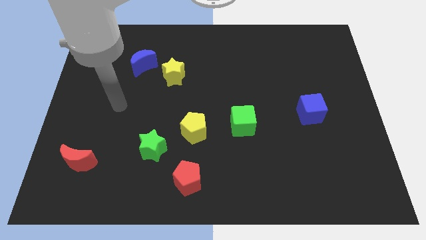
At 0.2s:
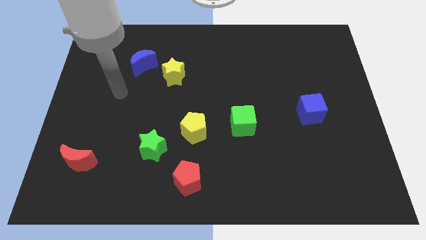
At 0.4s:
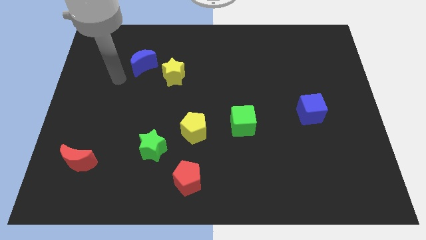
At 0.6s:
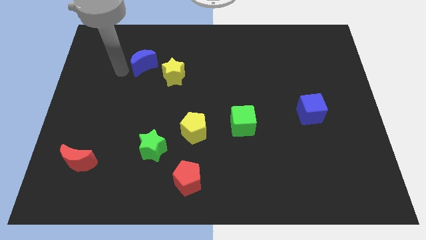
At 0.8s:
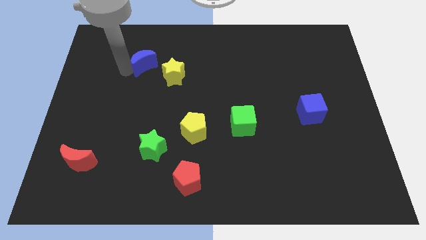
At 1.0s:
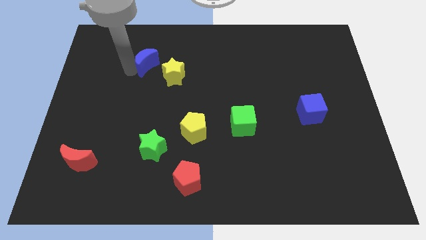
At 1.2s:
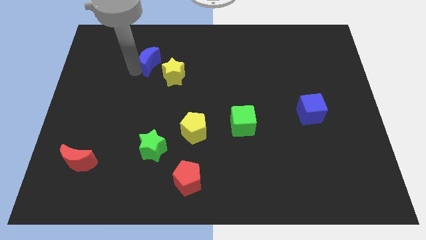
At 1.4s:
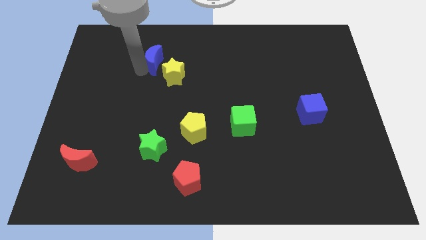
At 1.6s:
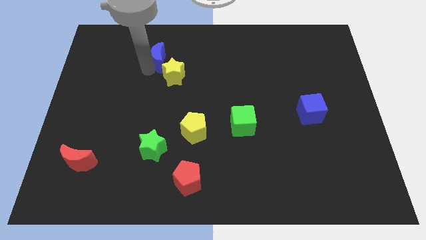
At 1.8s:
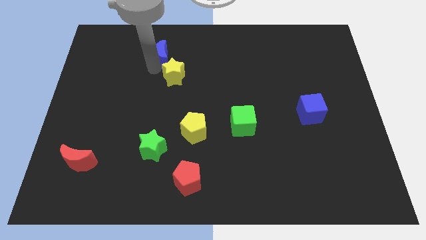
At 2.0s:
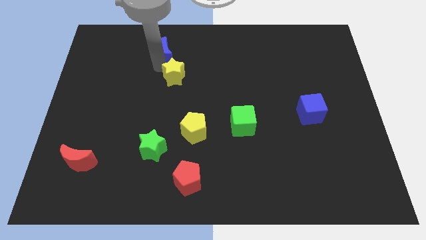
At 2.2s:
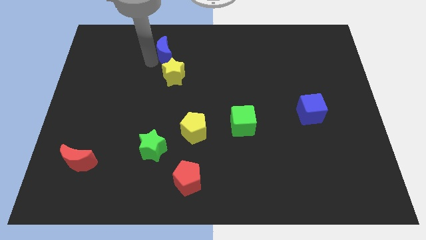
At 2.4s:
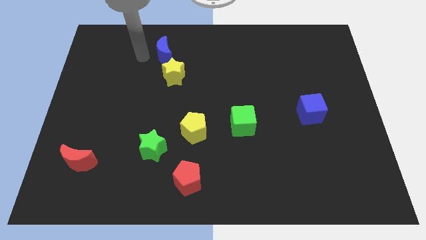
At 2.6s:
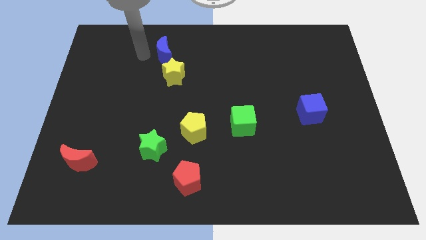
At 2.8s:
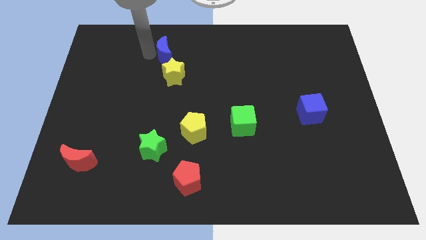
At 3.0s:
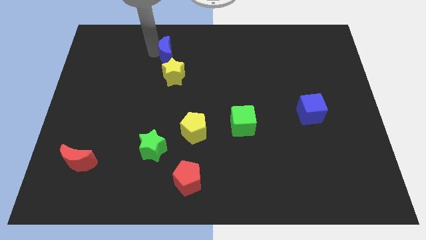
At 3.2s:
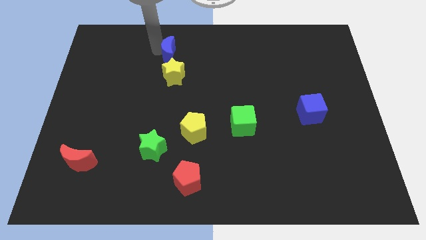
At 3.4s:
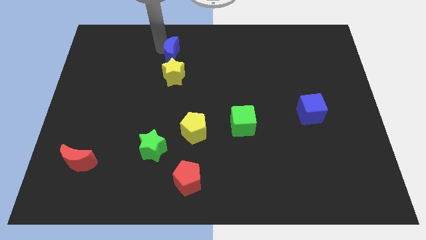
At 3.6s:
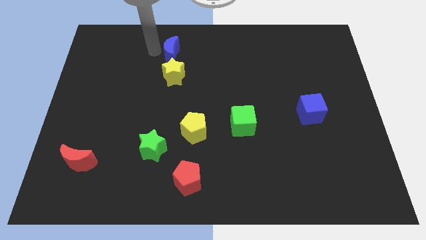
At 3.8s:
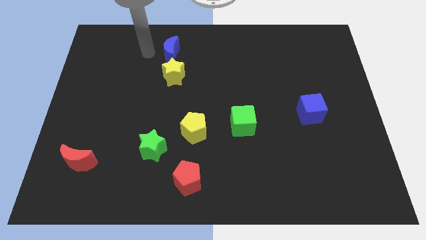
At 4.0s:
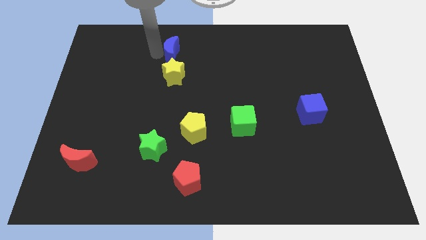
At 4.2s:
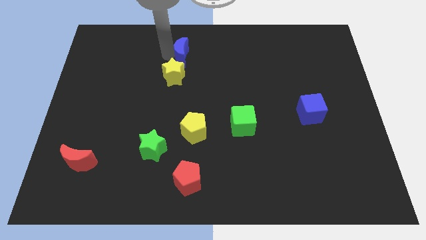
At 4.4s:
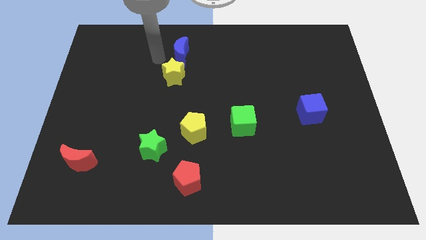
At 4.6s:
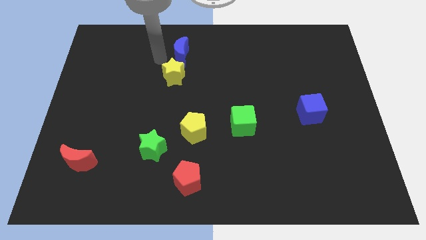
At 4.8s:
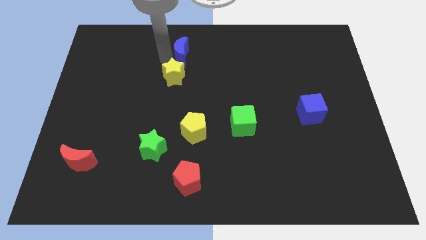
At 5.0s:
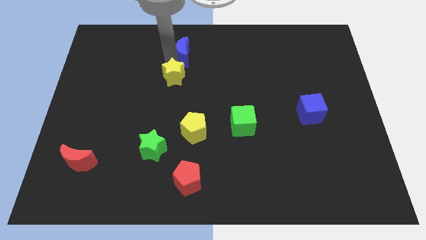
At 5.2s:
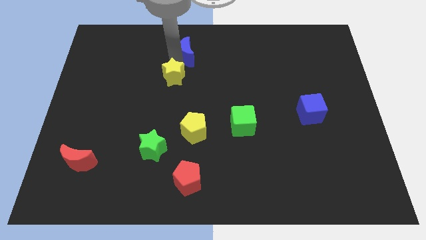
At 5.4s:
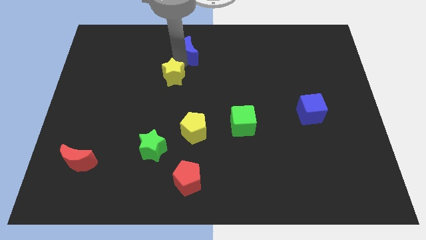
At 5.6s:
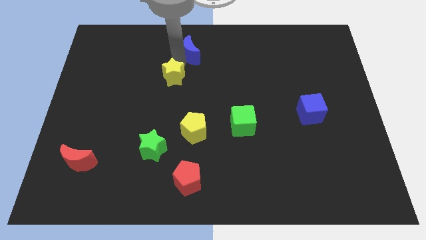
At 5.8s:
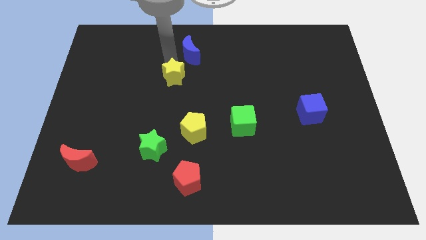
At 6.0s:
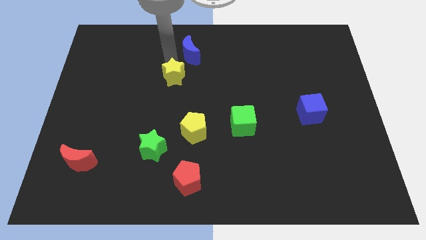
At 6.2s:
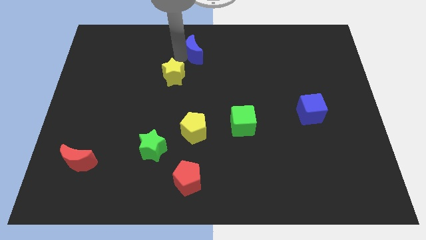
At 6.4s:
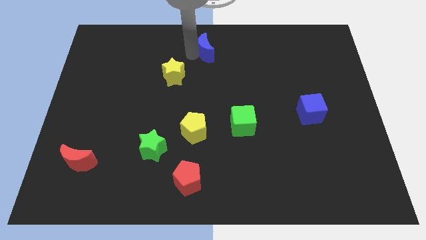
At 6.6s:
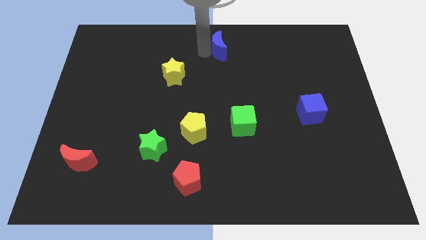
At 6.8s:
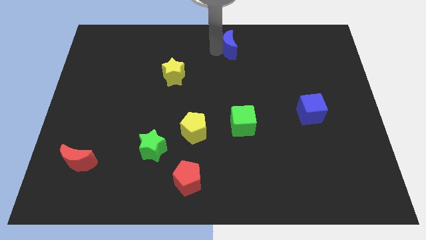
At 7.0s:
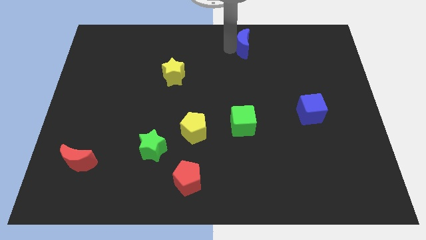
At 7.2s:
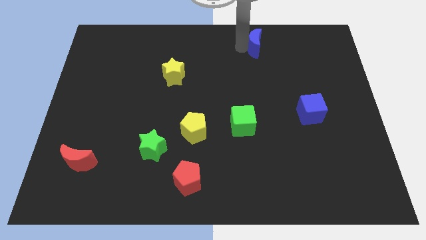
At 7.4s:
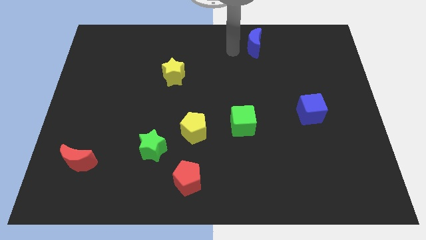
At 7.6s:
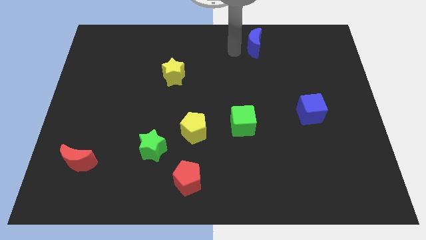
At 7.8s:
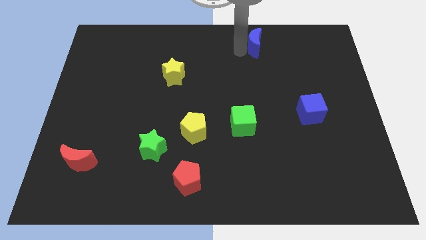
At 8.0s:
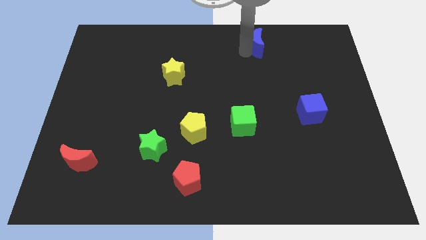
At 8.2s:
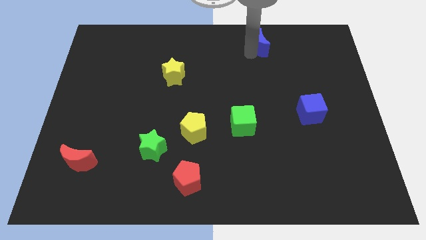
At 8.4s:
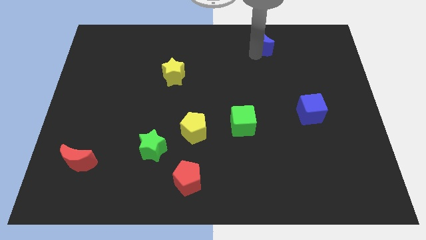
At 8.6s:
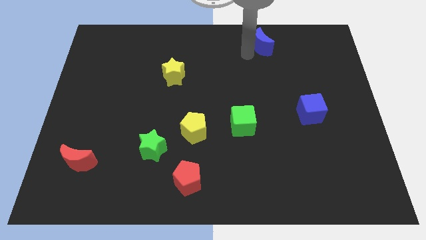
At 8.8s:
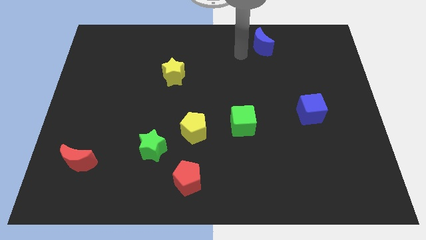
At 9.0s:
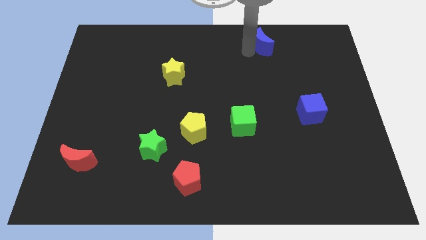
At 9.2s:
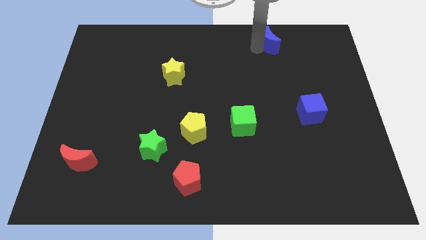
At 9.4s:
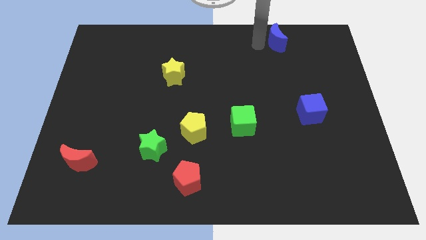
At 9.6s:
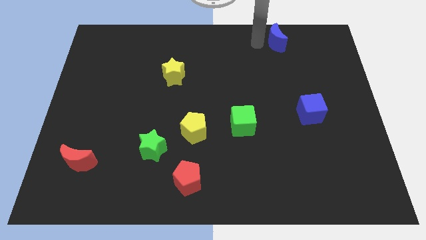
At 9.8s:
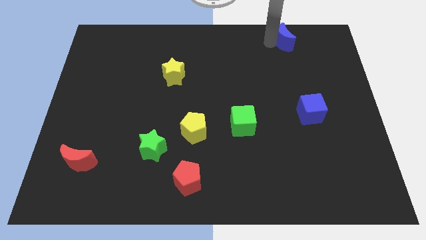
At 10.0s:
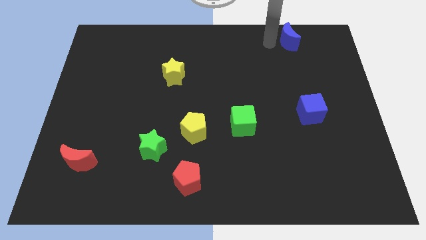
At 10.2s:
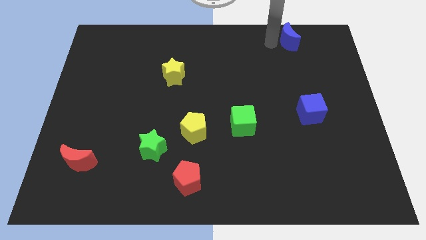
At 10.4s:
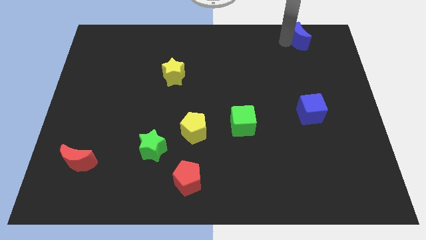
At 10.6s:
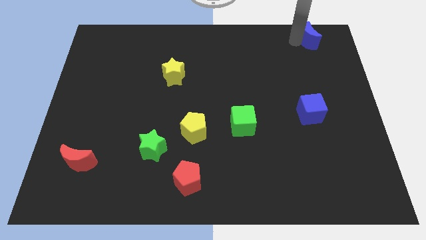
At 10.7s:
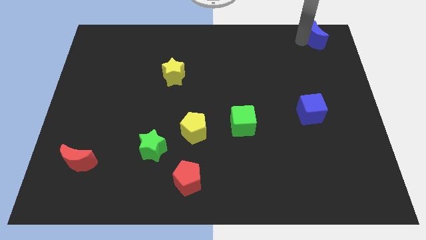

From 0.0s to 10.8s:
put the blue moon to the top right corner

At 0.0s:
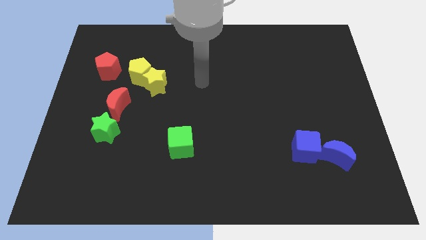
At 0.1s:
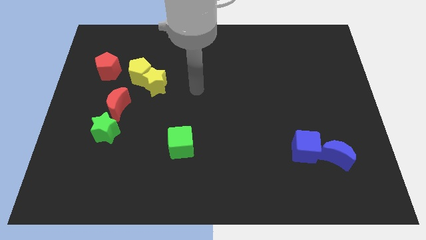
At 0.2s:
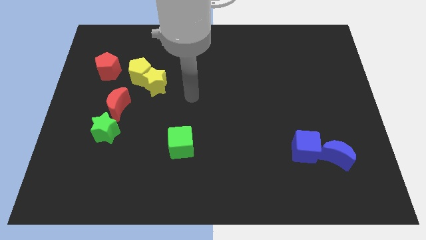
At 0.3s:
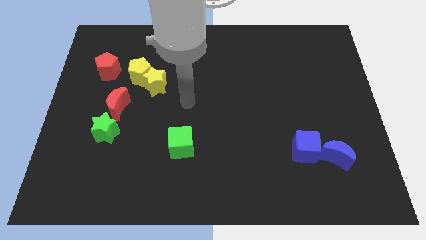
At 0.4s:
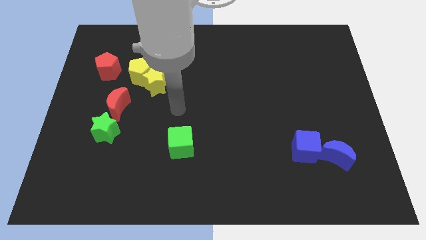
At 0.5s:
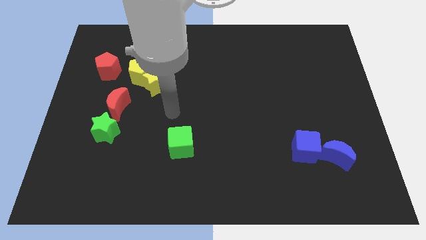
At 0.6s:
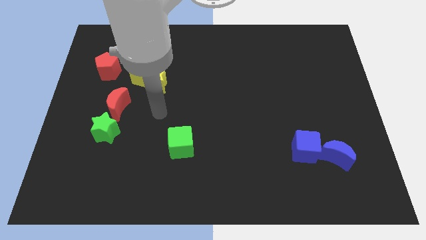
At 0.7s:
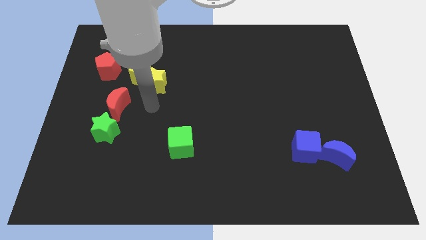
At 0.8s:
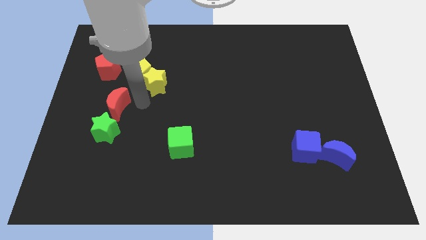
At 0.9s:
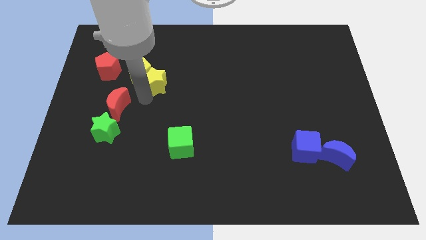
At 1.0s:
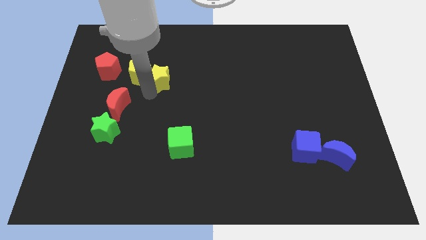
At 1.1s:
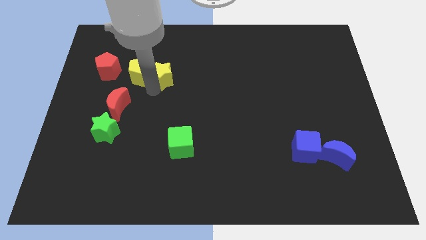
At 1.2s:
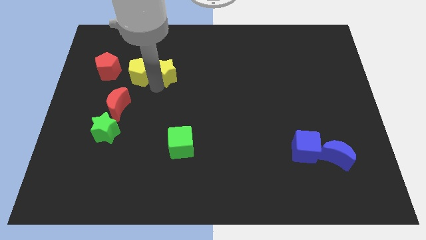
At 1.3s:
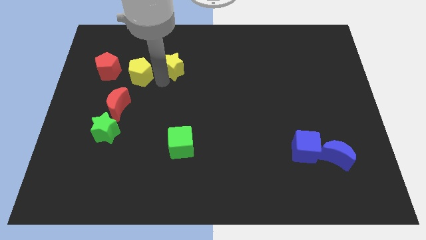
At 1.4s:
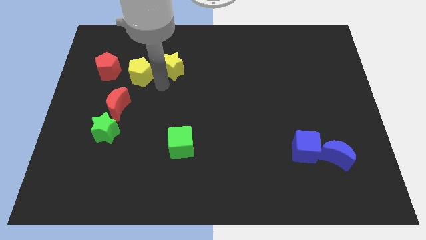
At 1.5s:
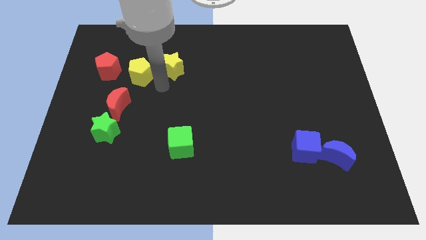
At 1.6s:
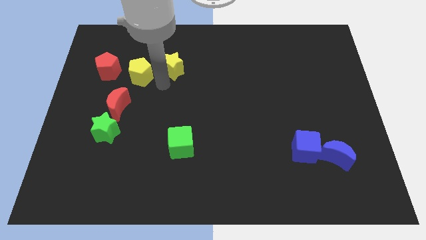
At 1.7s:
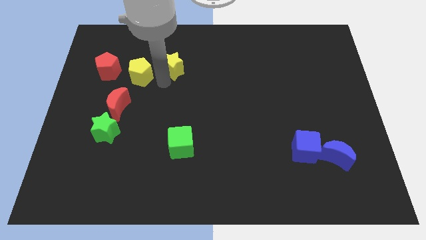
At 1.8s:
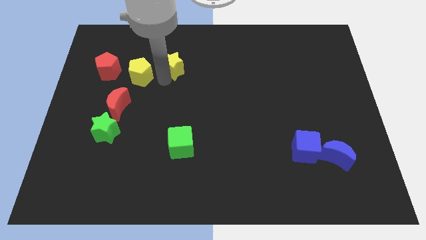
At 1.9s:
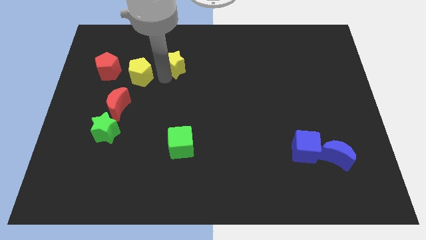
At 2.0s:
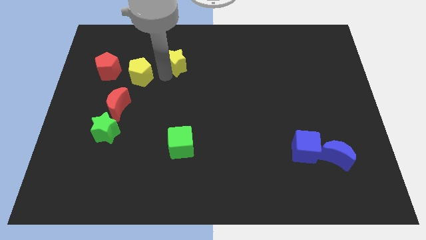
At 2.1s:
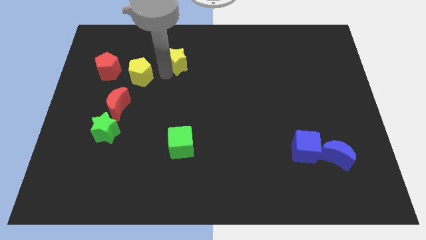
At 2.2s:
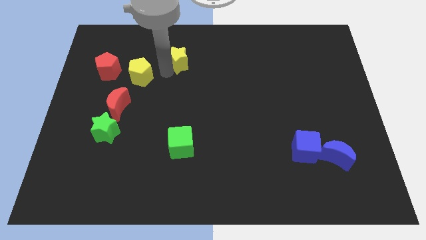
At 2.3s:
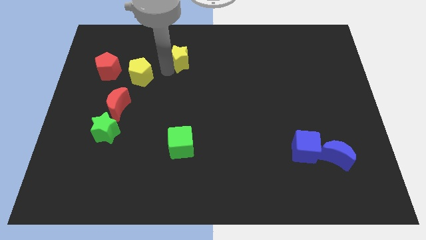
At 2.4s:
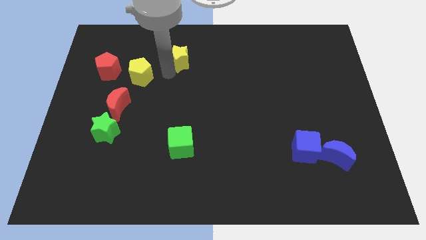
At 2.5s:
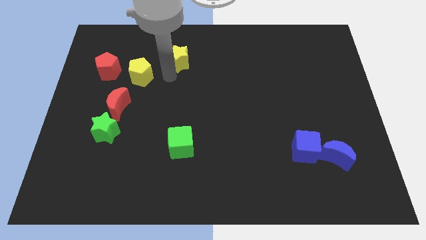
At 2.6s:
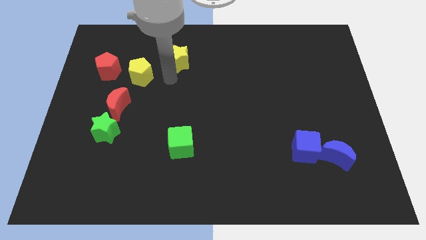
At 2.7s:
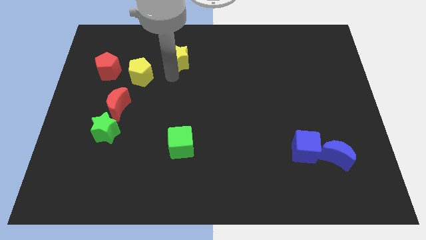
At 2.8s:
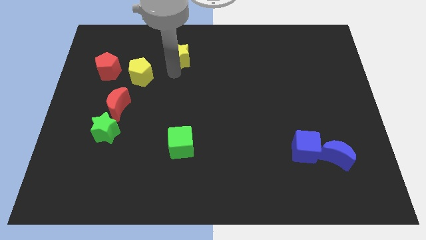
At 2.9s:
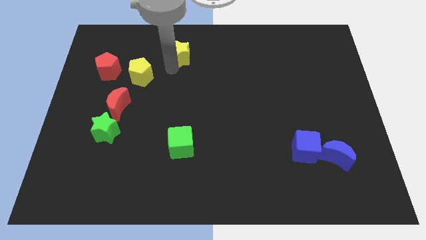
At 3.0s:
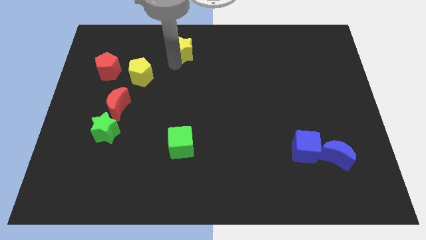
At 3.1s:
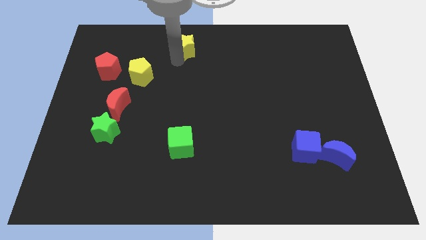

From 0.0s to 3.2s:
put the yellow star to the top side
